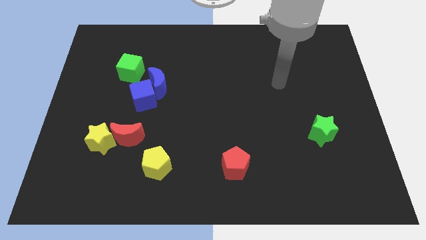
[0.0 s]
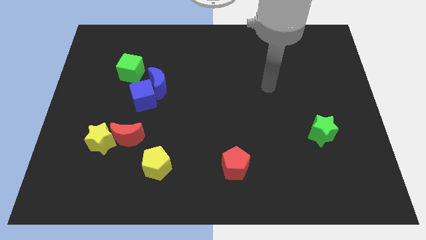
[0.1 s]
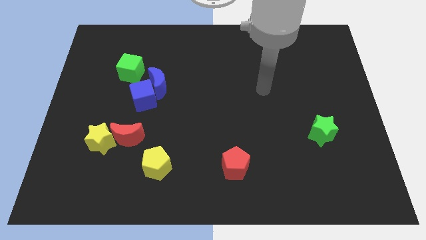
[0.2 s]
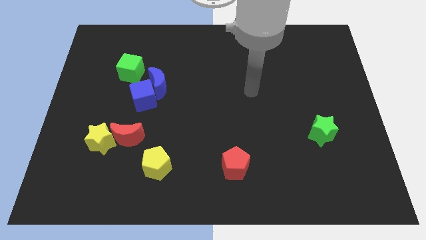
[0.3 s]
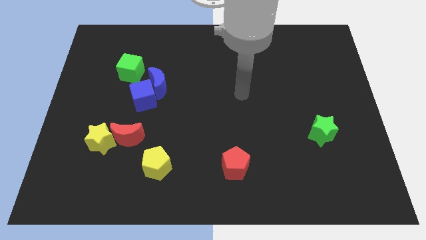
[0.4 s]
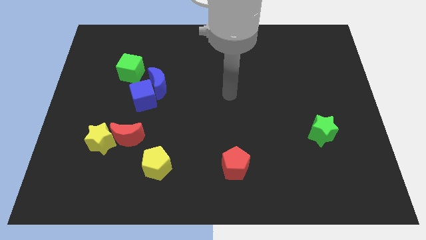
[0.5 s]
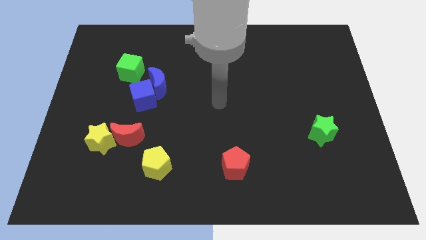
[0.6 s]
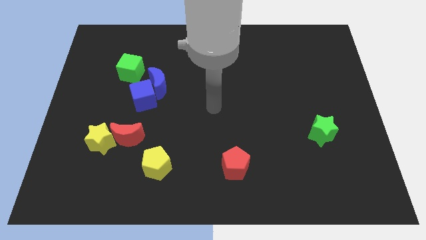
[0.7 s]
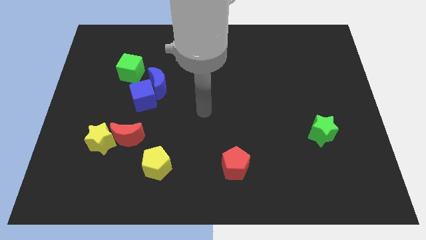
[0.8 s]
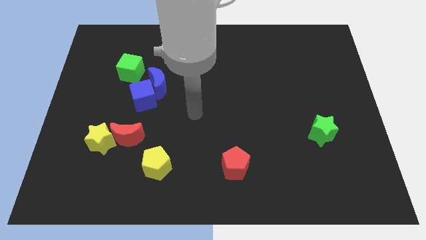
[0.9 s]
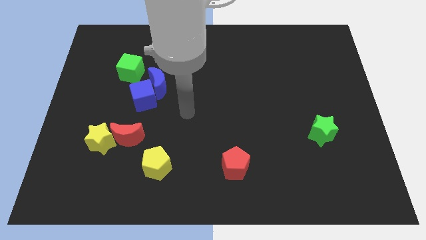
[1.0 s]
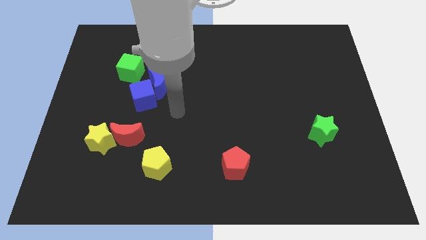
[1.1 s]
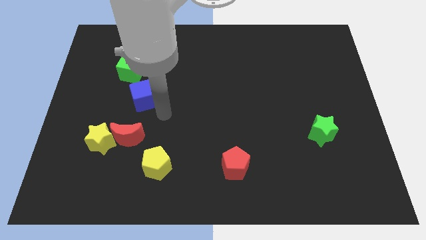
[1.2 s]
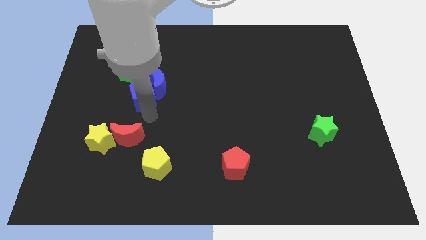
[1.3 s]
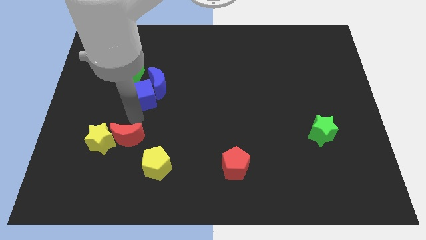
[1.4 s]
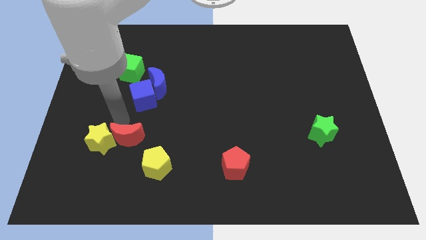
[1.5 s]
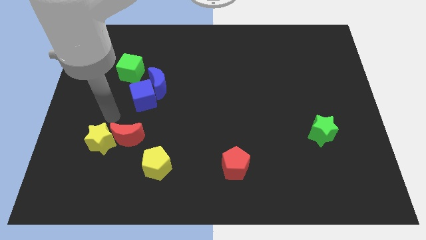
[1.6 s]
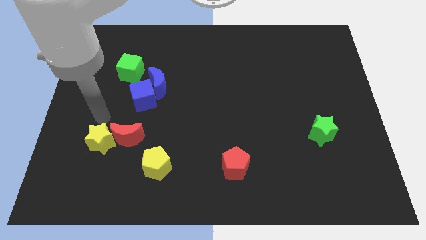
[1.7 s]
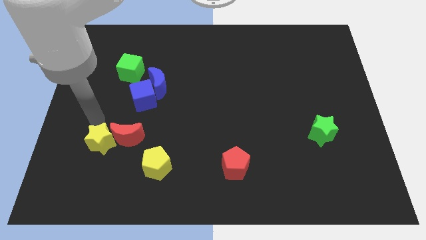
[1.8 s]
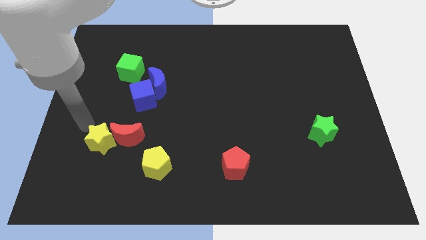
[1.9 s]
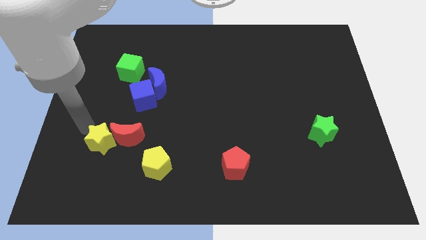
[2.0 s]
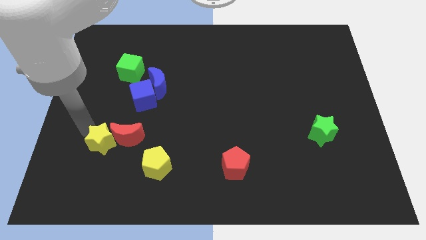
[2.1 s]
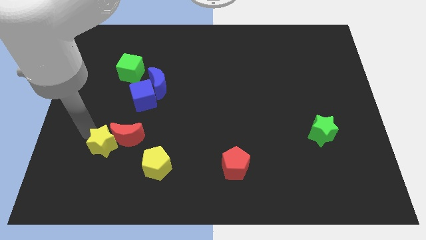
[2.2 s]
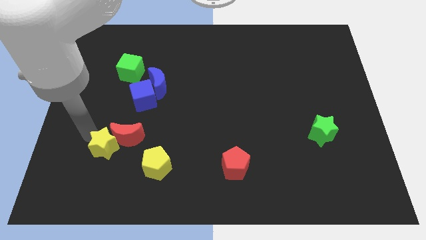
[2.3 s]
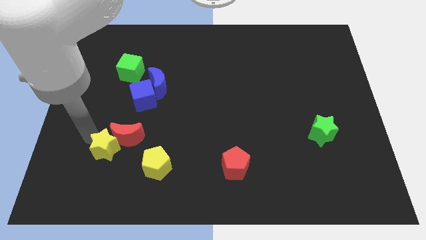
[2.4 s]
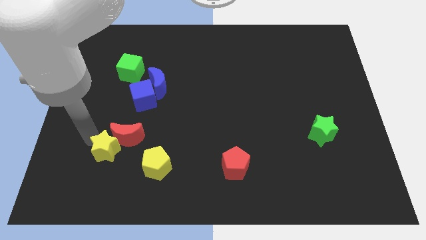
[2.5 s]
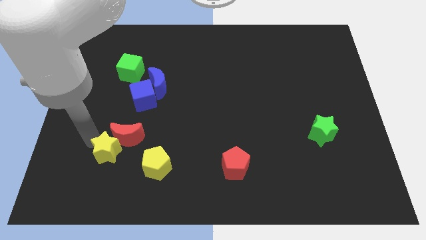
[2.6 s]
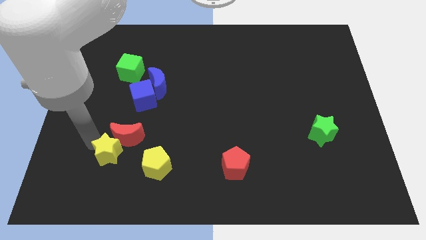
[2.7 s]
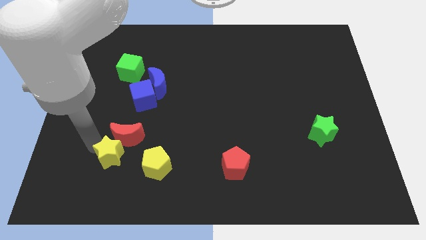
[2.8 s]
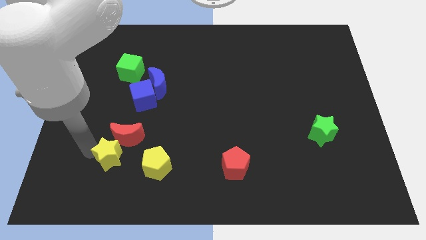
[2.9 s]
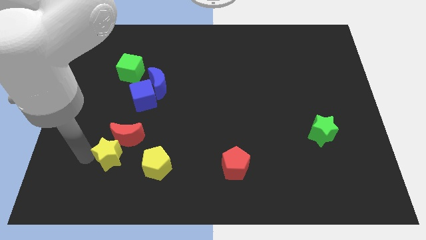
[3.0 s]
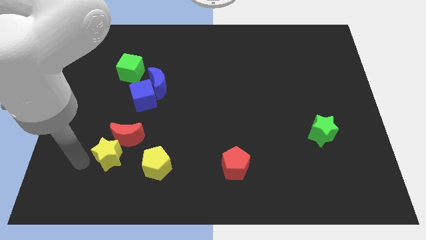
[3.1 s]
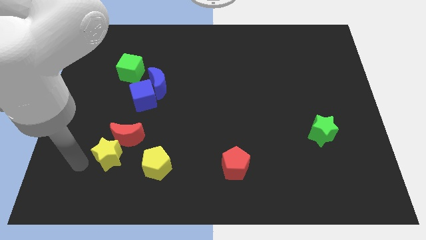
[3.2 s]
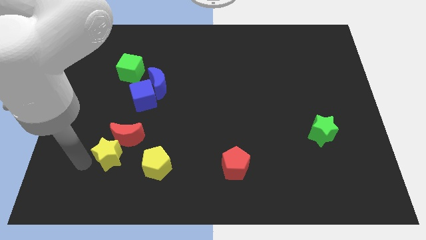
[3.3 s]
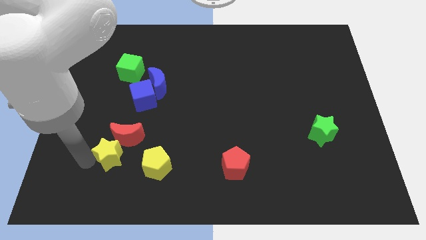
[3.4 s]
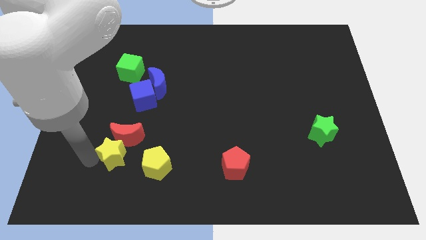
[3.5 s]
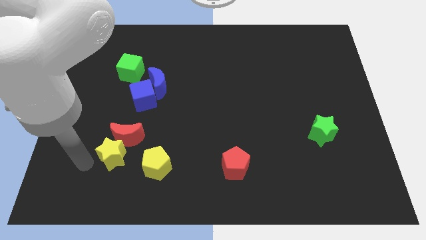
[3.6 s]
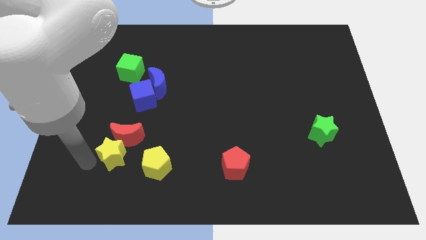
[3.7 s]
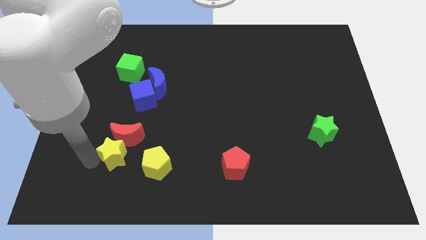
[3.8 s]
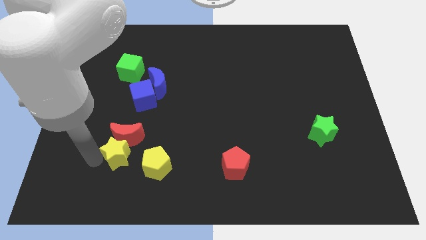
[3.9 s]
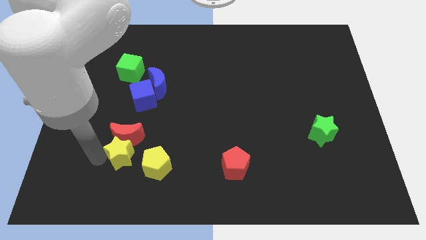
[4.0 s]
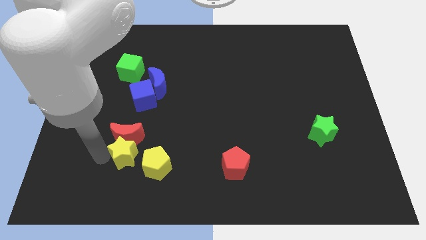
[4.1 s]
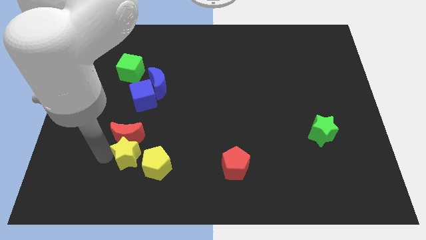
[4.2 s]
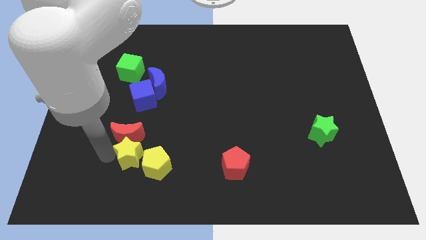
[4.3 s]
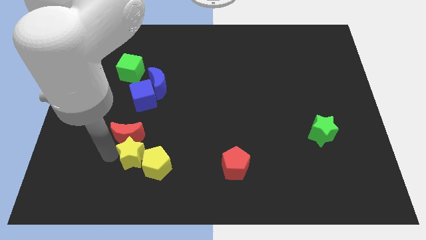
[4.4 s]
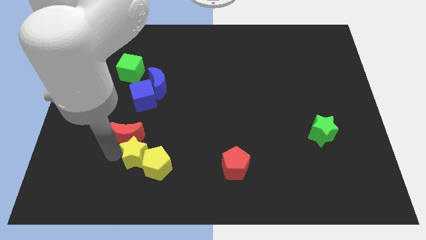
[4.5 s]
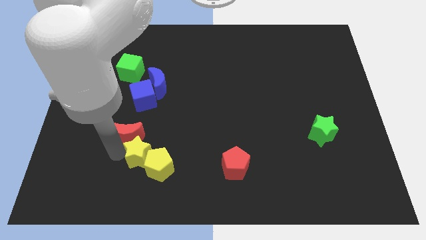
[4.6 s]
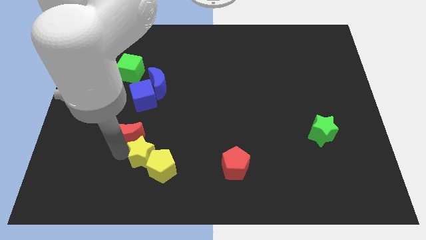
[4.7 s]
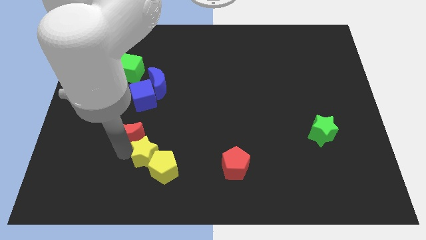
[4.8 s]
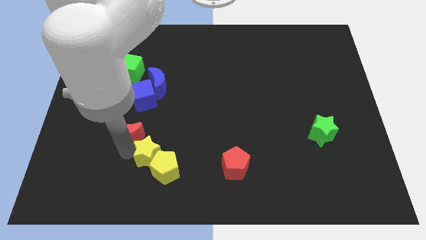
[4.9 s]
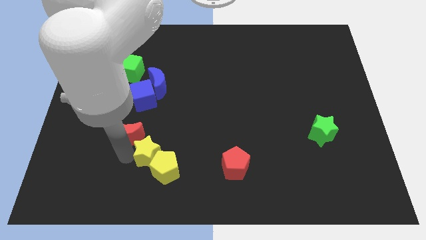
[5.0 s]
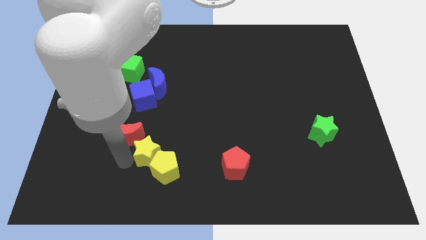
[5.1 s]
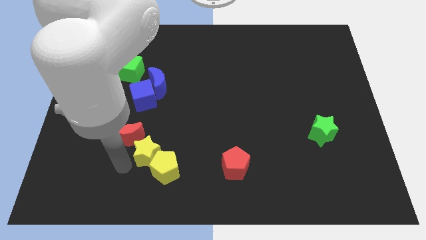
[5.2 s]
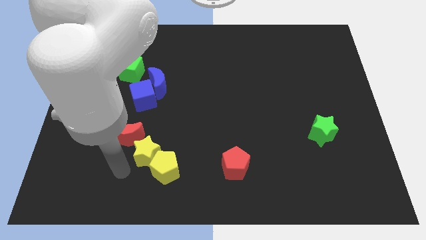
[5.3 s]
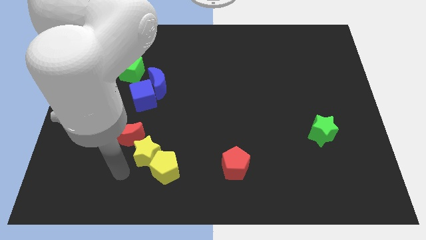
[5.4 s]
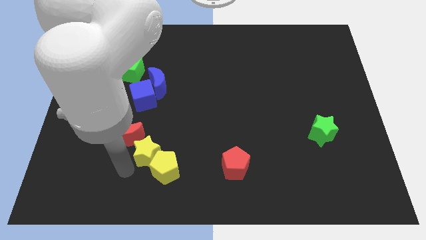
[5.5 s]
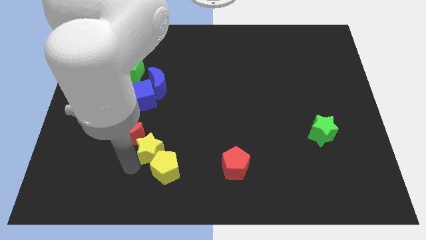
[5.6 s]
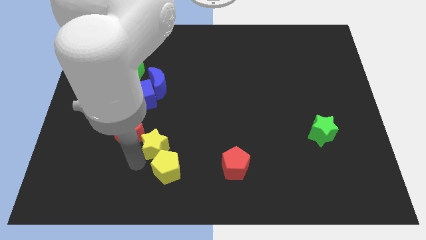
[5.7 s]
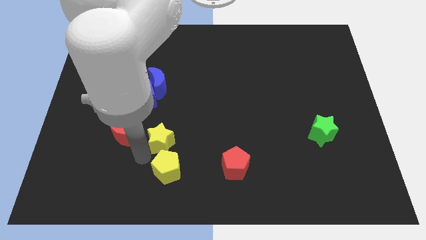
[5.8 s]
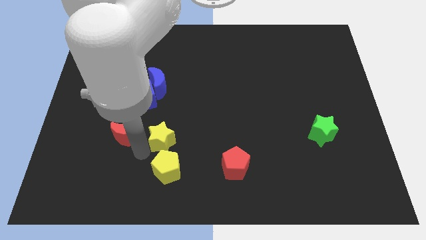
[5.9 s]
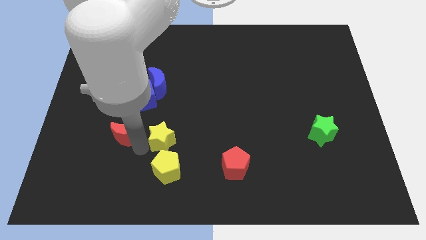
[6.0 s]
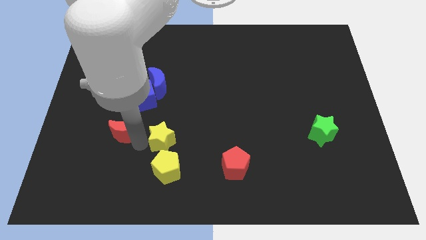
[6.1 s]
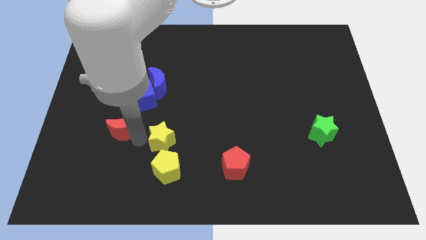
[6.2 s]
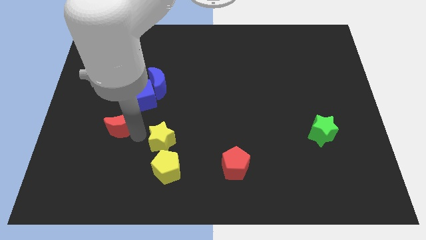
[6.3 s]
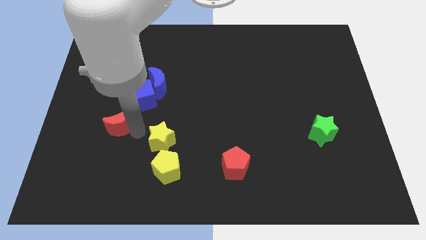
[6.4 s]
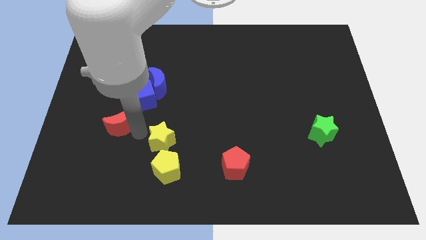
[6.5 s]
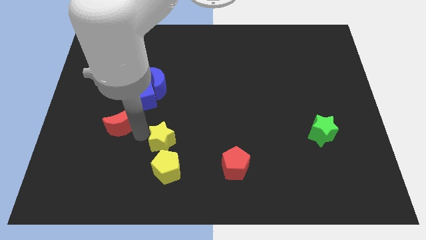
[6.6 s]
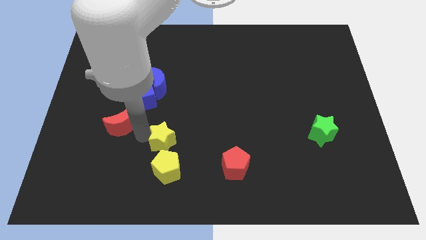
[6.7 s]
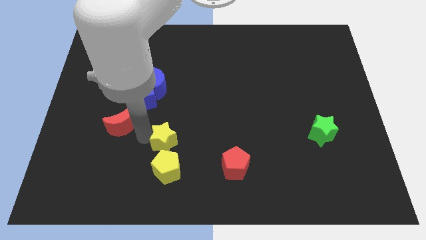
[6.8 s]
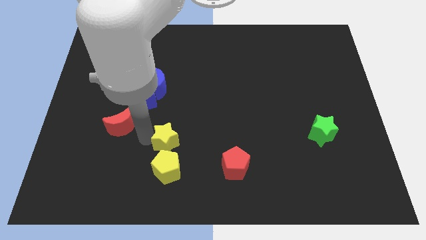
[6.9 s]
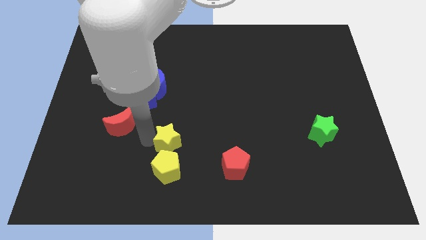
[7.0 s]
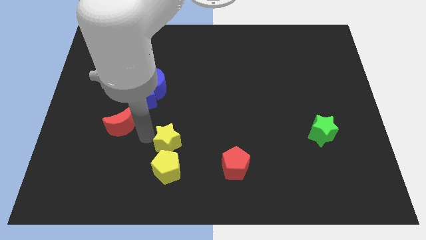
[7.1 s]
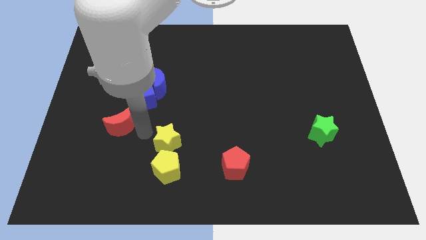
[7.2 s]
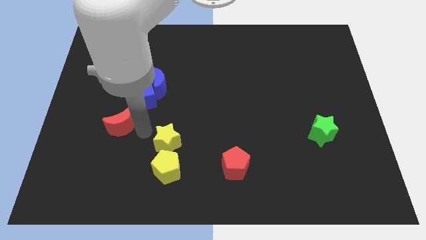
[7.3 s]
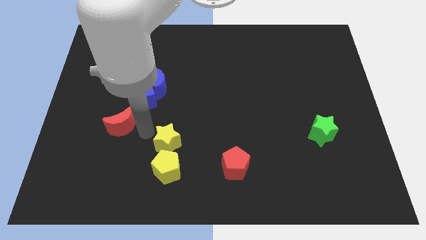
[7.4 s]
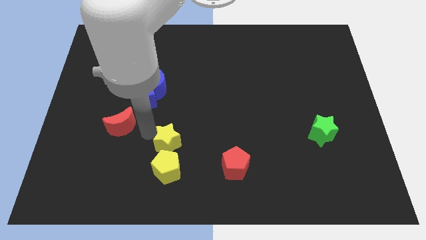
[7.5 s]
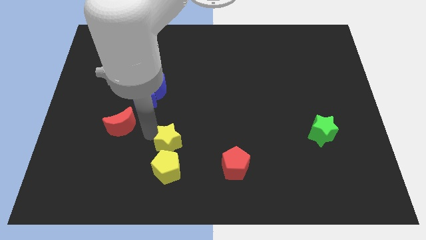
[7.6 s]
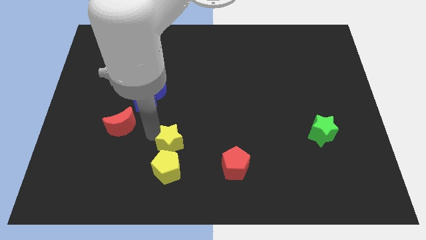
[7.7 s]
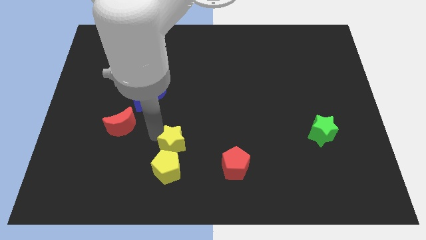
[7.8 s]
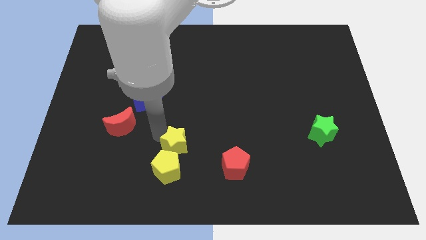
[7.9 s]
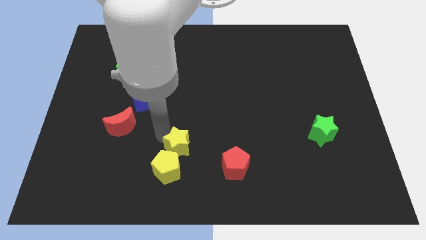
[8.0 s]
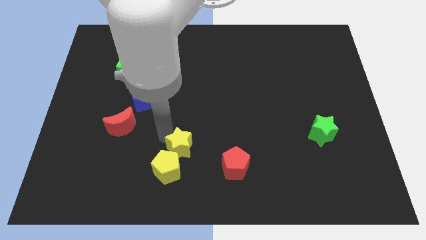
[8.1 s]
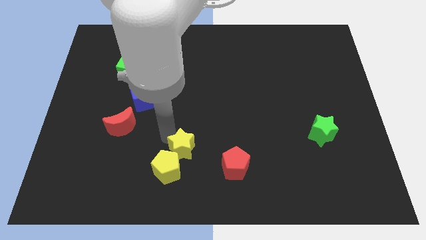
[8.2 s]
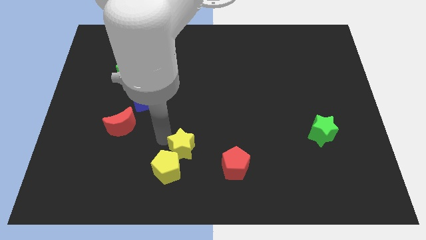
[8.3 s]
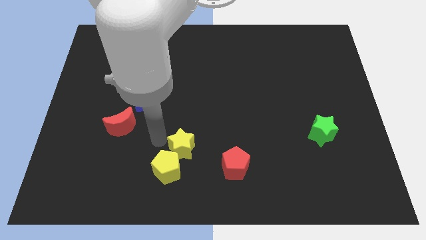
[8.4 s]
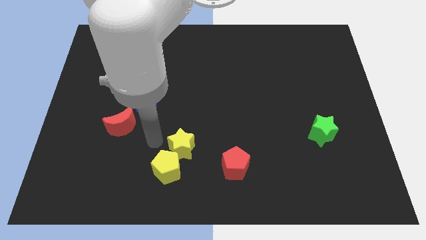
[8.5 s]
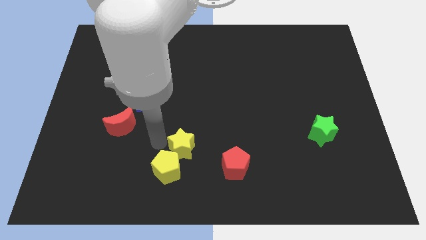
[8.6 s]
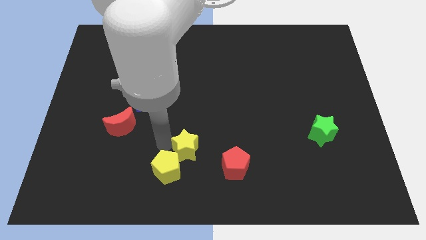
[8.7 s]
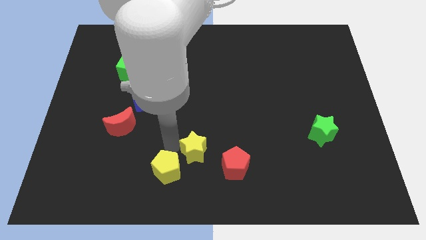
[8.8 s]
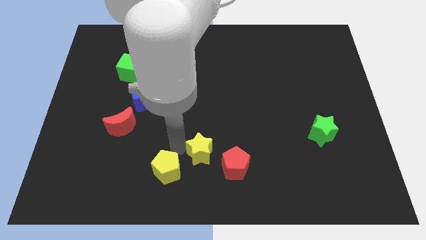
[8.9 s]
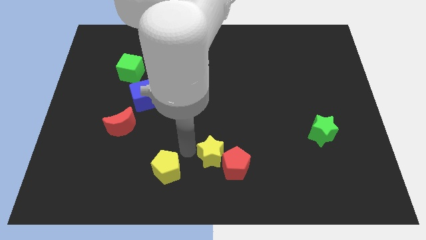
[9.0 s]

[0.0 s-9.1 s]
put the yellow star to the red pentagon
